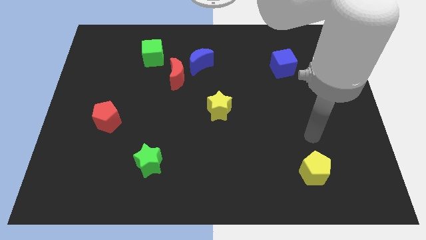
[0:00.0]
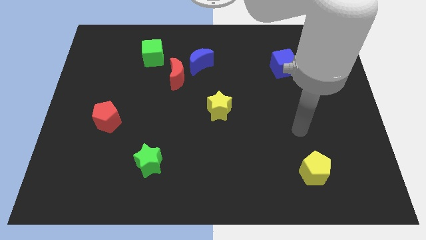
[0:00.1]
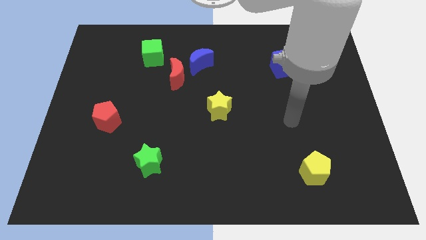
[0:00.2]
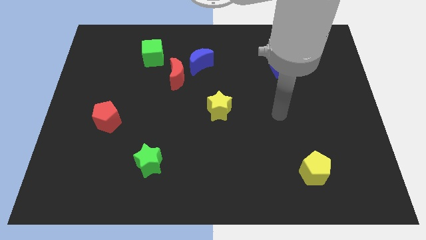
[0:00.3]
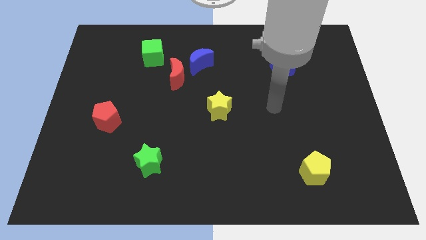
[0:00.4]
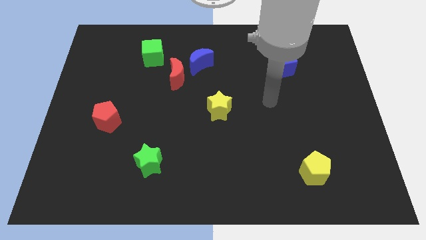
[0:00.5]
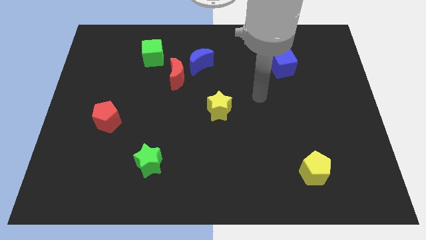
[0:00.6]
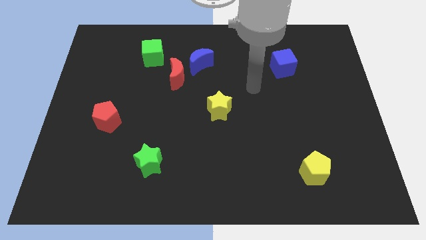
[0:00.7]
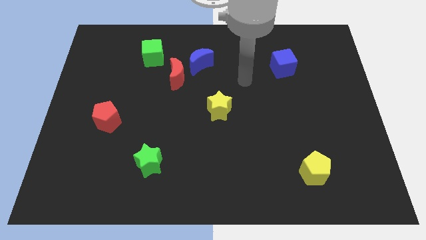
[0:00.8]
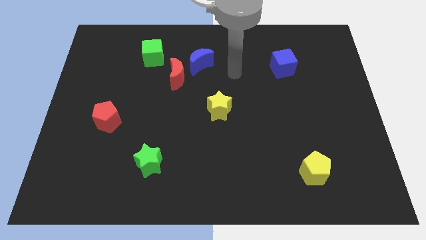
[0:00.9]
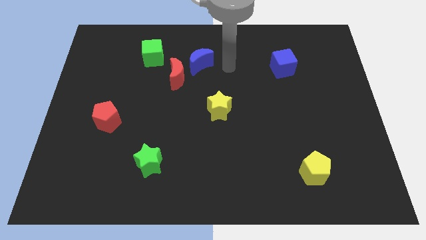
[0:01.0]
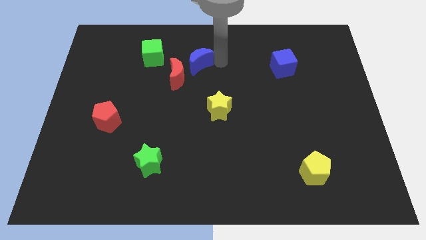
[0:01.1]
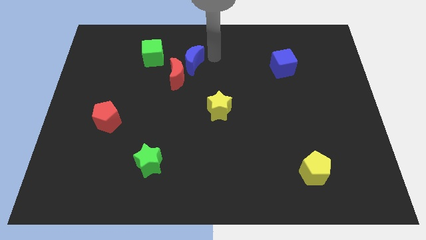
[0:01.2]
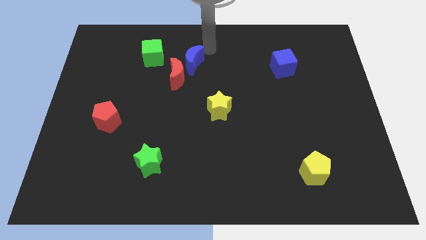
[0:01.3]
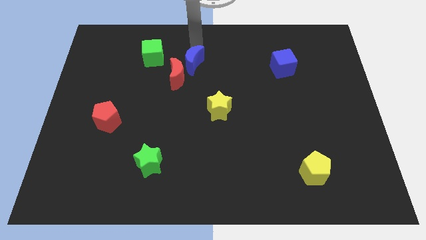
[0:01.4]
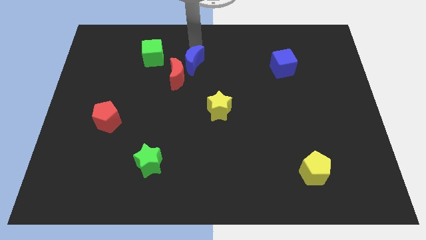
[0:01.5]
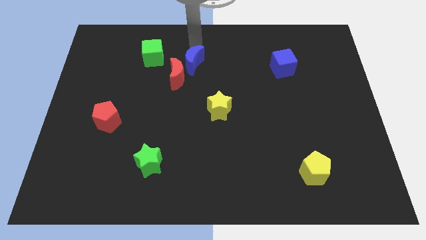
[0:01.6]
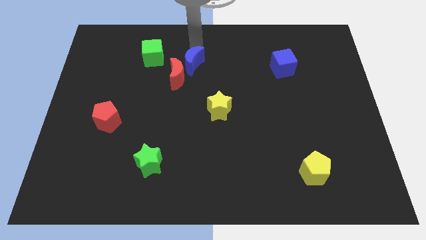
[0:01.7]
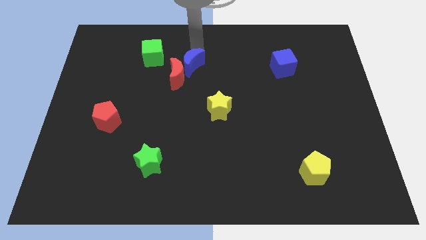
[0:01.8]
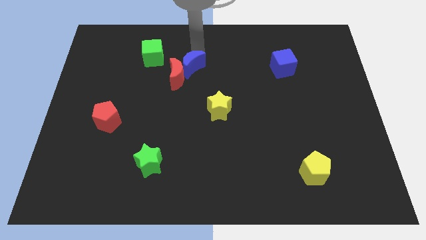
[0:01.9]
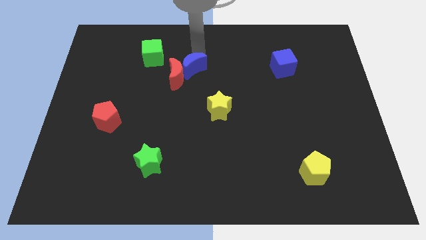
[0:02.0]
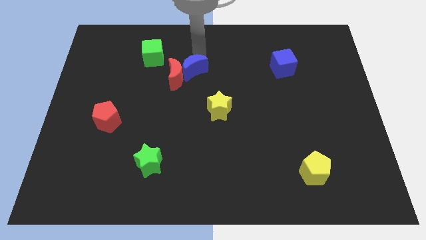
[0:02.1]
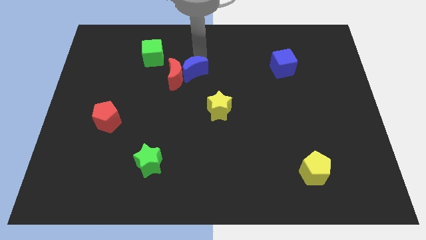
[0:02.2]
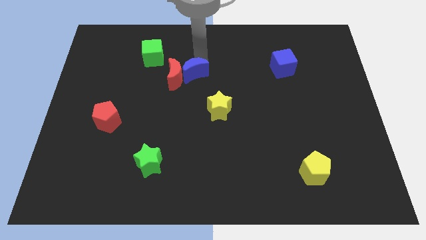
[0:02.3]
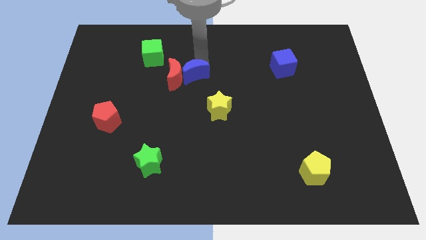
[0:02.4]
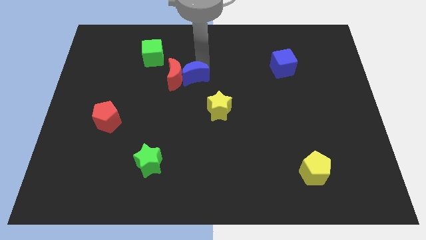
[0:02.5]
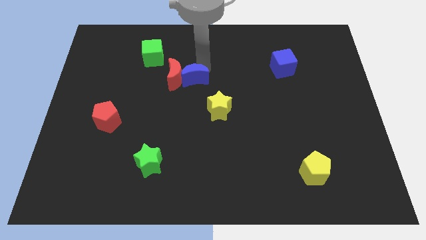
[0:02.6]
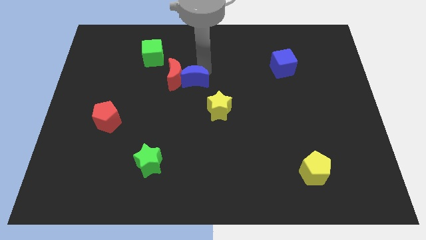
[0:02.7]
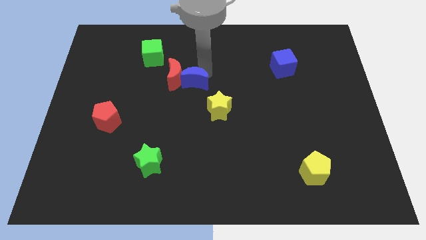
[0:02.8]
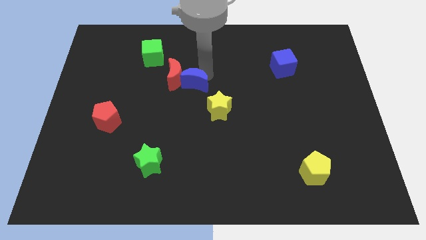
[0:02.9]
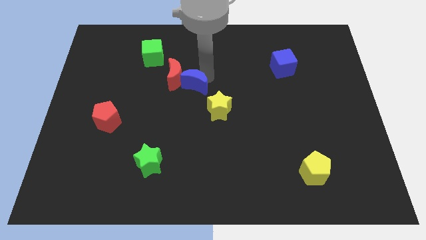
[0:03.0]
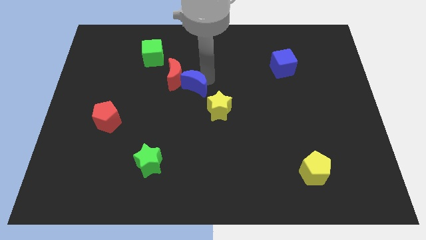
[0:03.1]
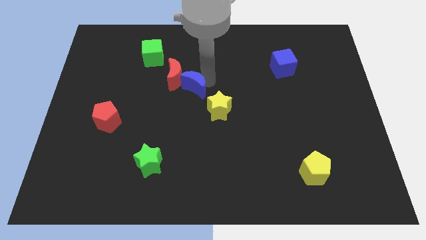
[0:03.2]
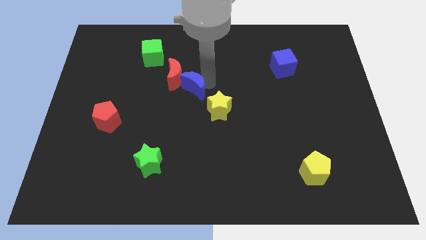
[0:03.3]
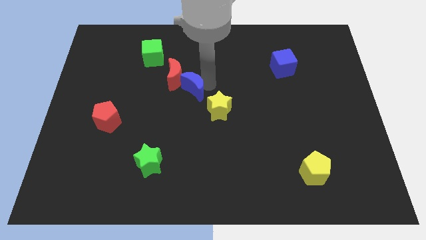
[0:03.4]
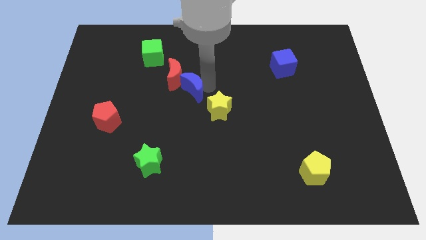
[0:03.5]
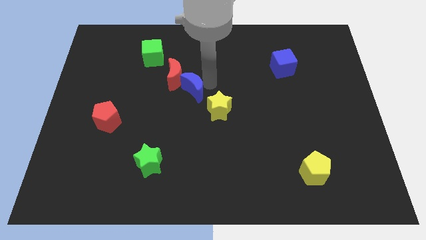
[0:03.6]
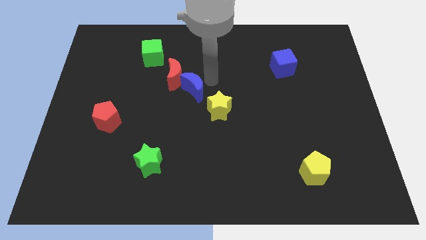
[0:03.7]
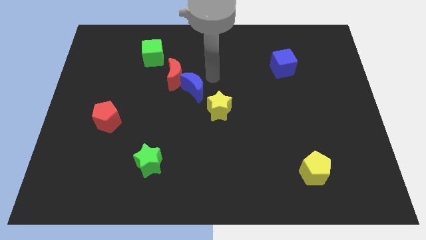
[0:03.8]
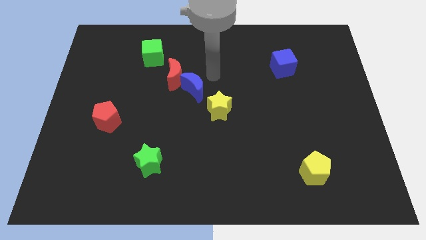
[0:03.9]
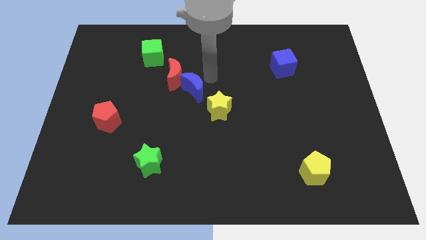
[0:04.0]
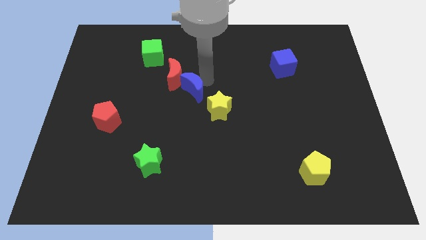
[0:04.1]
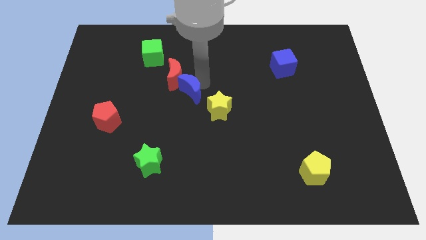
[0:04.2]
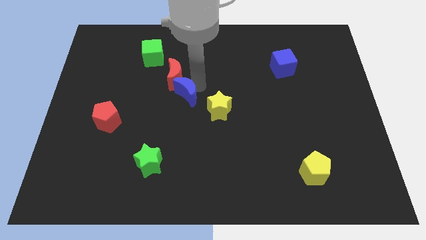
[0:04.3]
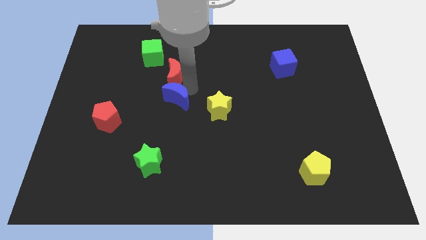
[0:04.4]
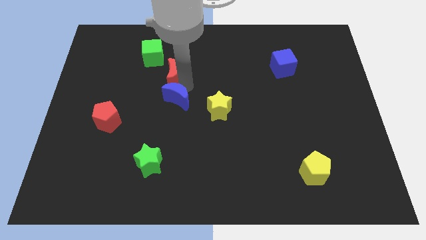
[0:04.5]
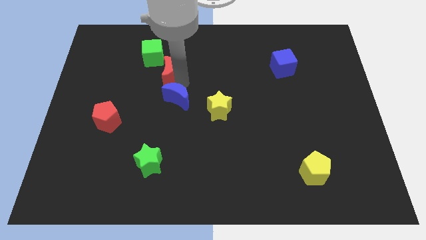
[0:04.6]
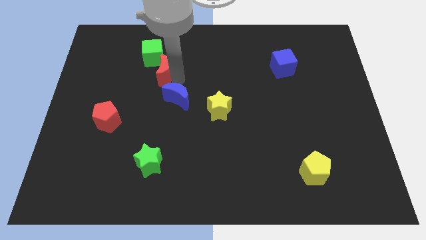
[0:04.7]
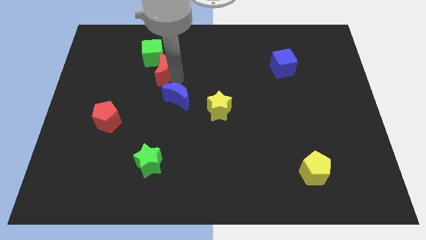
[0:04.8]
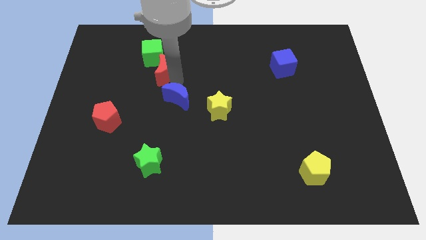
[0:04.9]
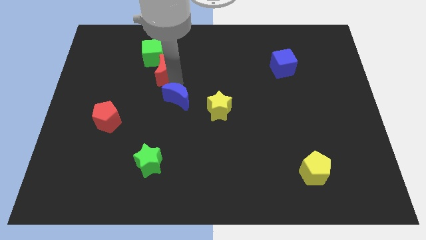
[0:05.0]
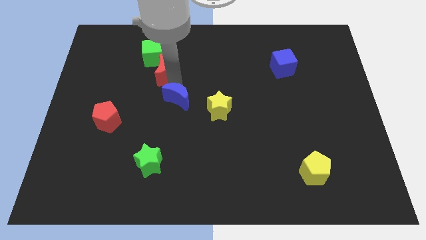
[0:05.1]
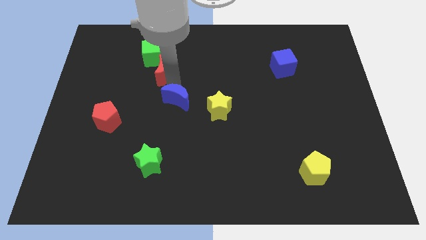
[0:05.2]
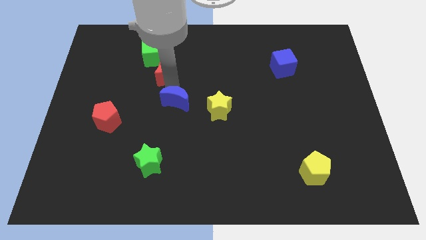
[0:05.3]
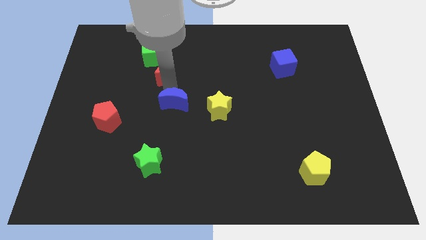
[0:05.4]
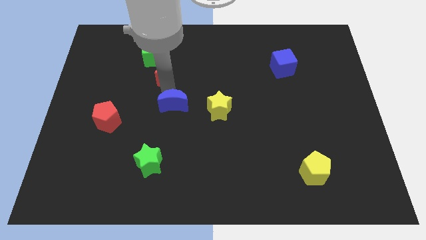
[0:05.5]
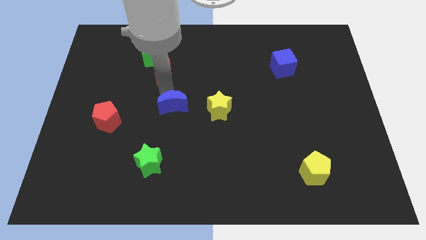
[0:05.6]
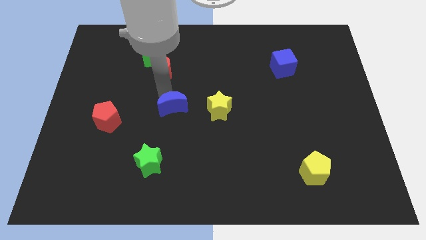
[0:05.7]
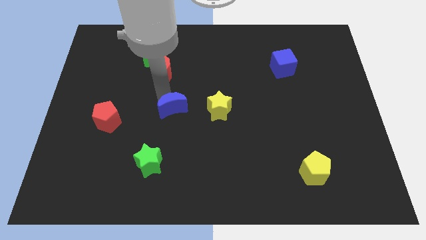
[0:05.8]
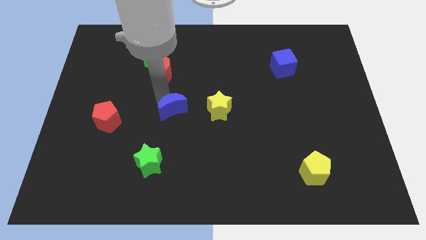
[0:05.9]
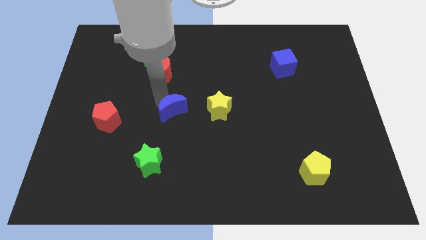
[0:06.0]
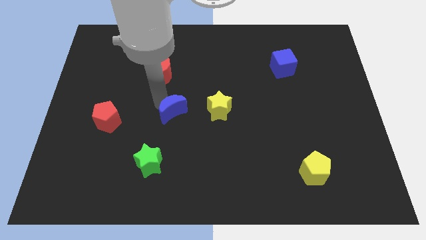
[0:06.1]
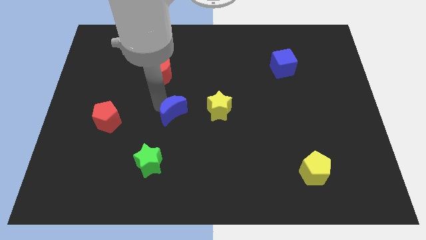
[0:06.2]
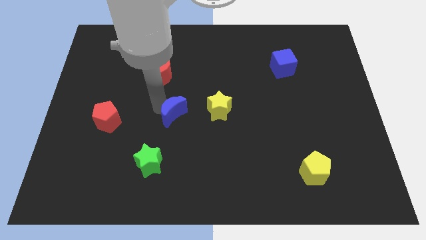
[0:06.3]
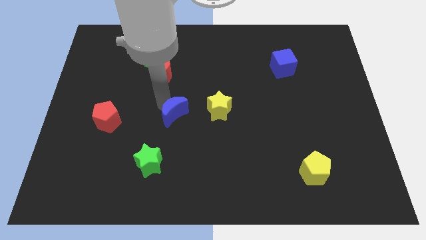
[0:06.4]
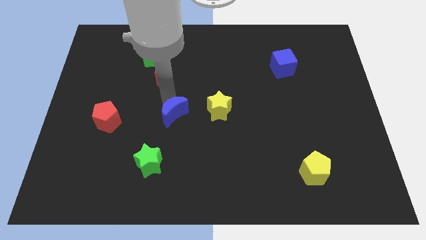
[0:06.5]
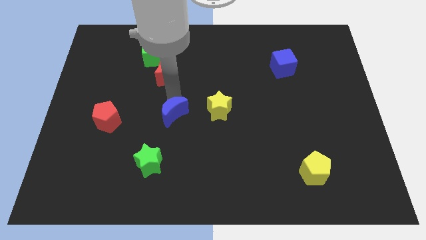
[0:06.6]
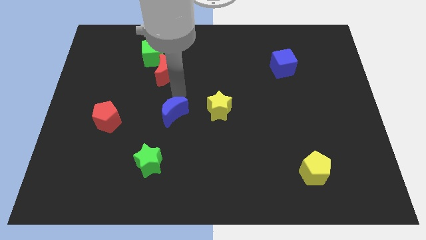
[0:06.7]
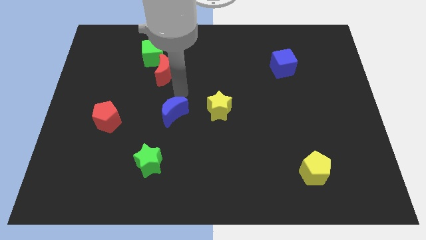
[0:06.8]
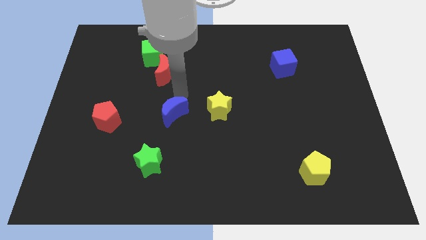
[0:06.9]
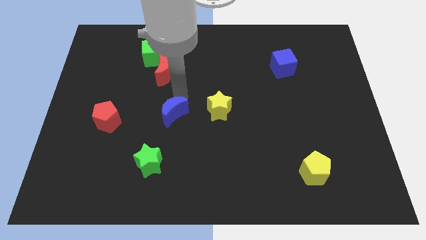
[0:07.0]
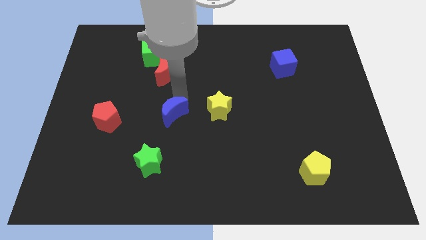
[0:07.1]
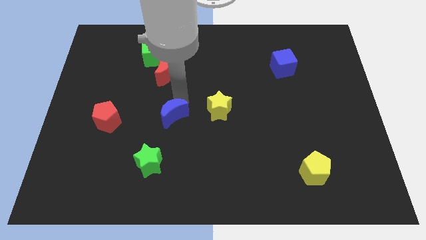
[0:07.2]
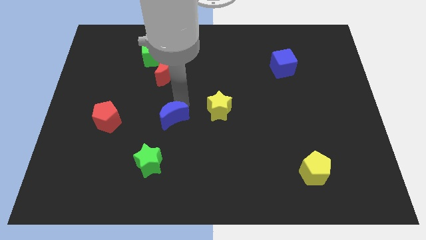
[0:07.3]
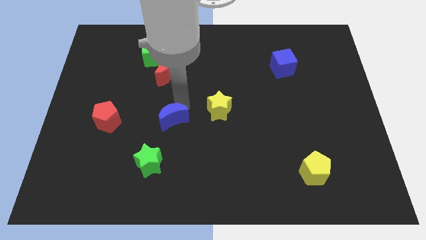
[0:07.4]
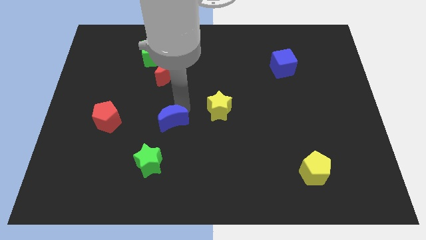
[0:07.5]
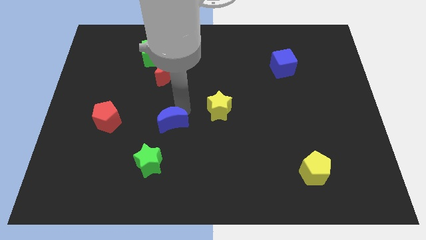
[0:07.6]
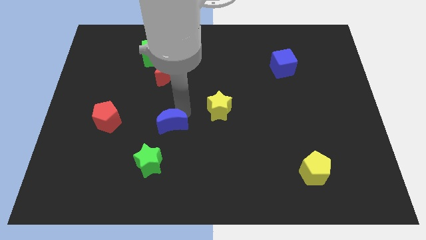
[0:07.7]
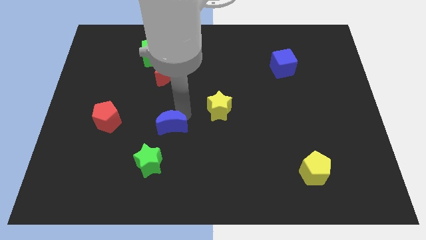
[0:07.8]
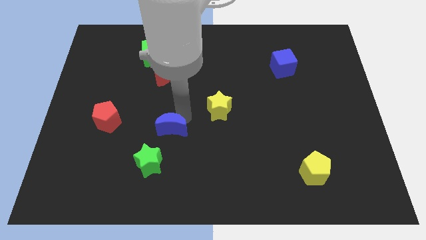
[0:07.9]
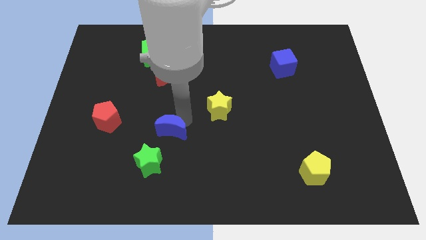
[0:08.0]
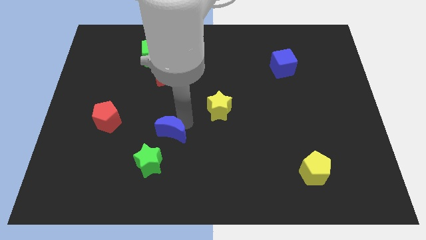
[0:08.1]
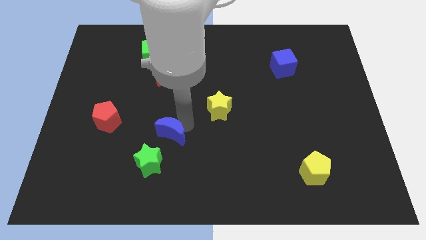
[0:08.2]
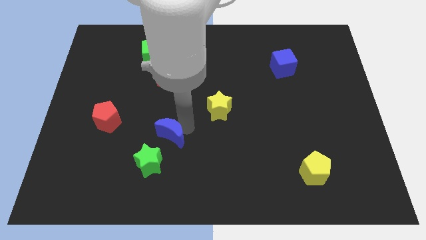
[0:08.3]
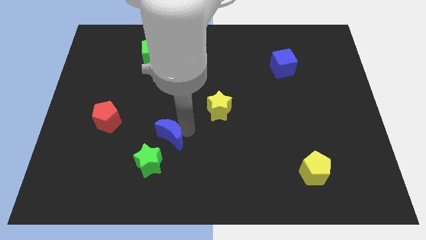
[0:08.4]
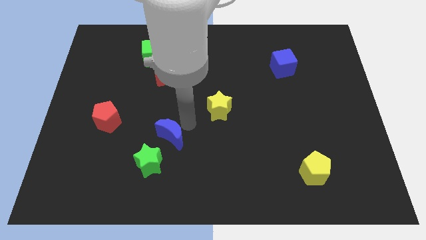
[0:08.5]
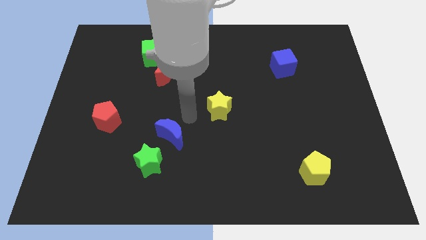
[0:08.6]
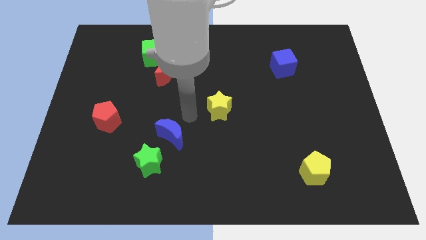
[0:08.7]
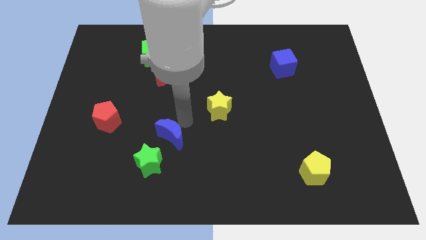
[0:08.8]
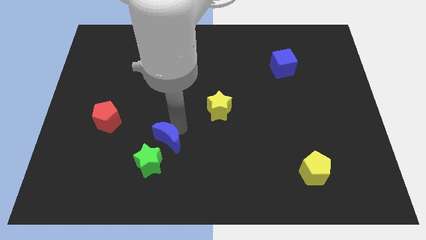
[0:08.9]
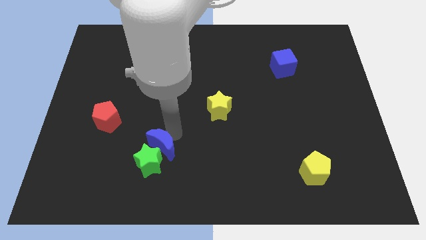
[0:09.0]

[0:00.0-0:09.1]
slide the blue moon next to the green star
